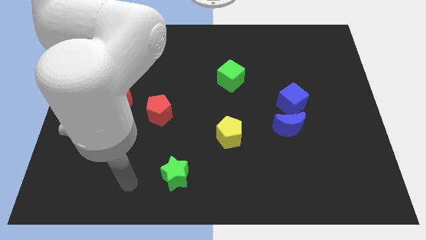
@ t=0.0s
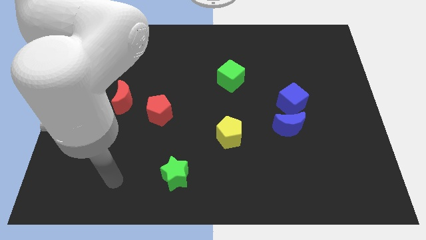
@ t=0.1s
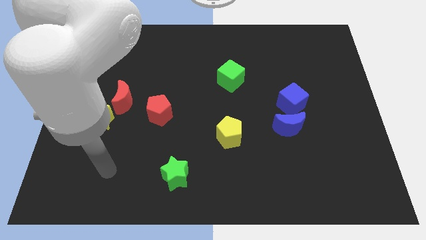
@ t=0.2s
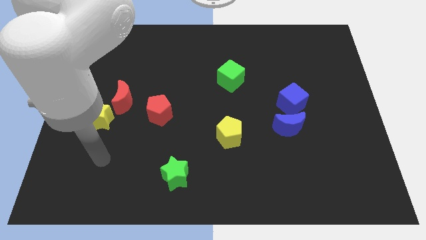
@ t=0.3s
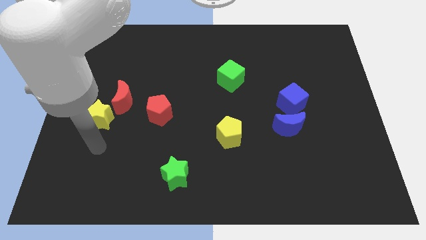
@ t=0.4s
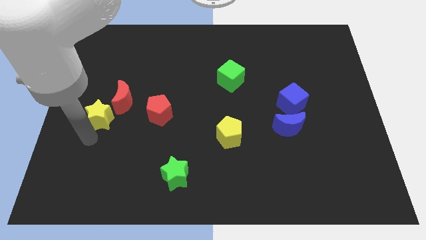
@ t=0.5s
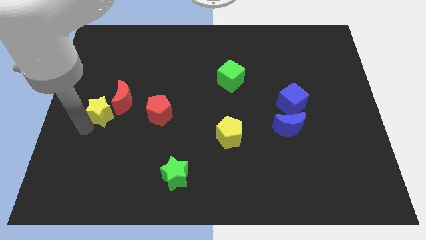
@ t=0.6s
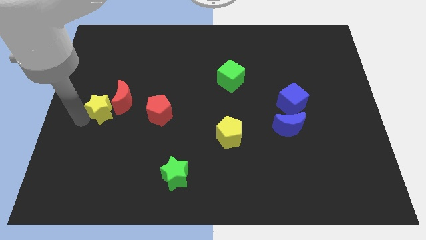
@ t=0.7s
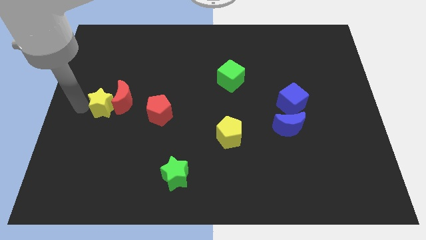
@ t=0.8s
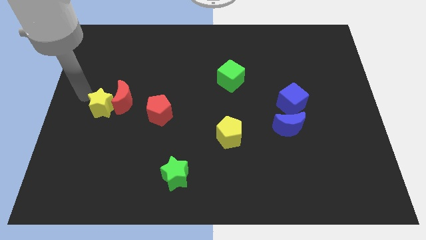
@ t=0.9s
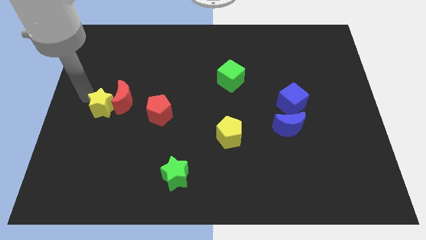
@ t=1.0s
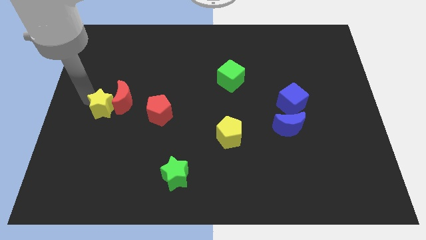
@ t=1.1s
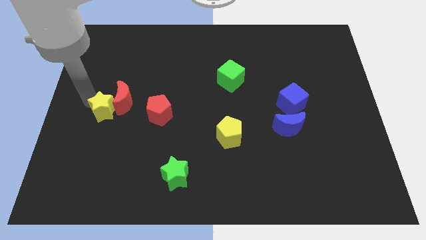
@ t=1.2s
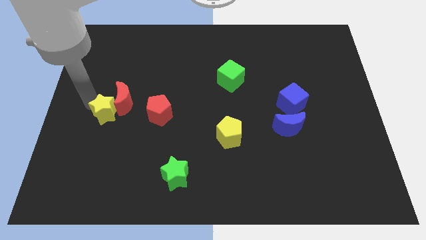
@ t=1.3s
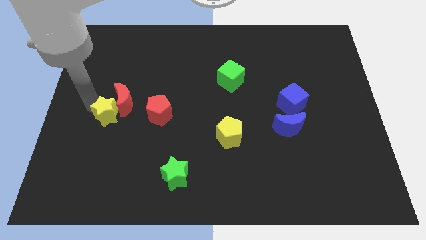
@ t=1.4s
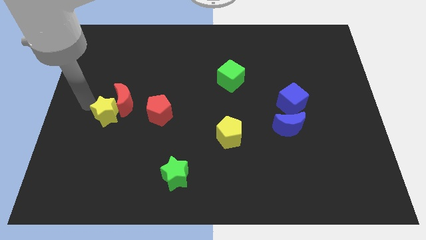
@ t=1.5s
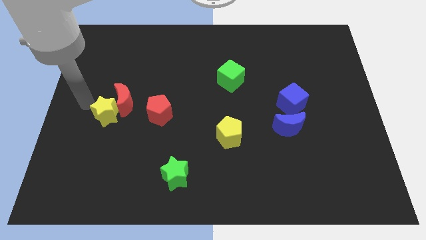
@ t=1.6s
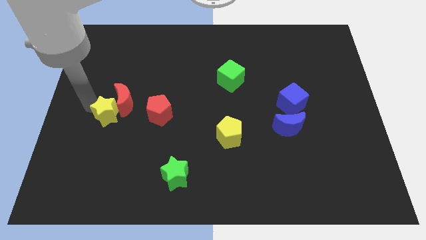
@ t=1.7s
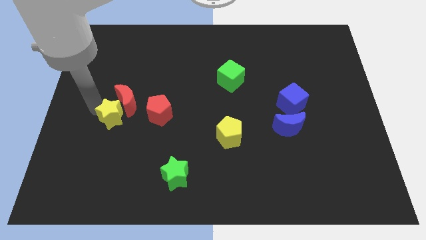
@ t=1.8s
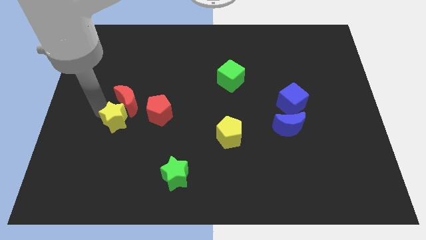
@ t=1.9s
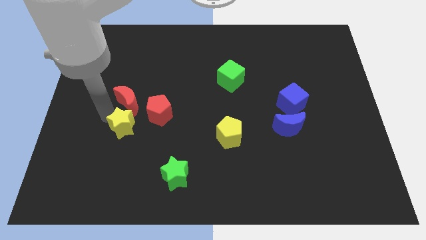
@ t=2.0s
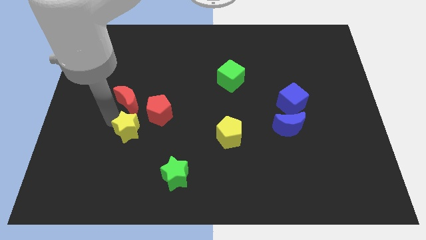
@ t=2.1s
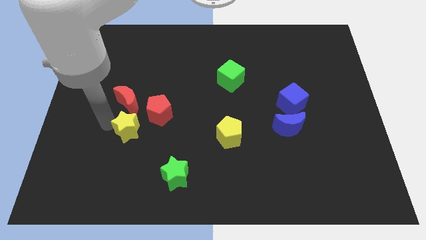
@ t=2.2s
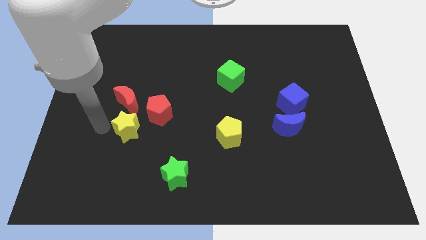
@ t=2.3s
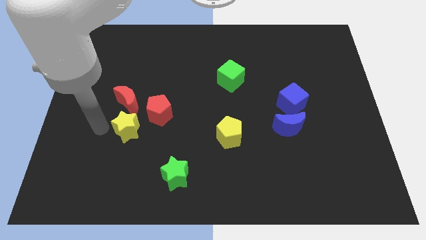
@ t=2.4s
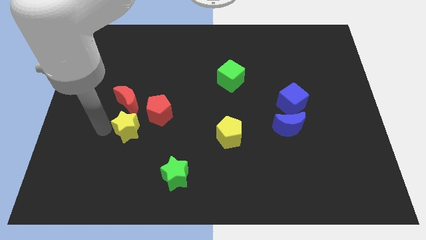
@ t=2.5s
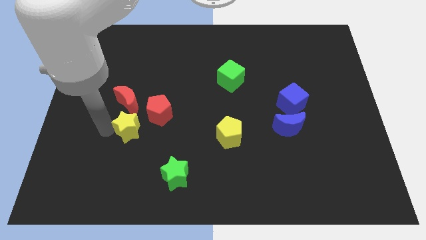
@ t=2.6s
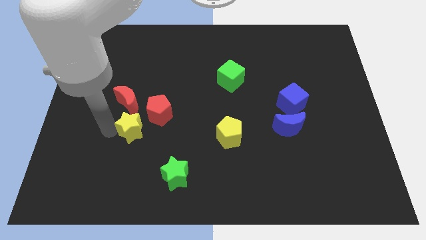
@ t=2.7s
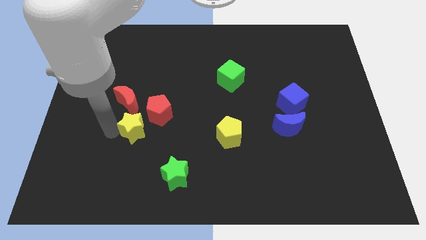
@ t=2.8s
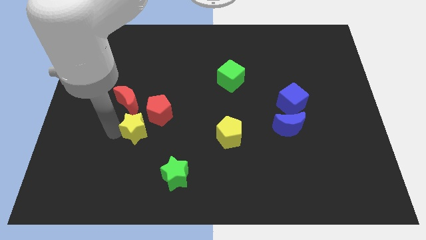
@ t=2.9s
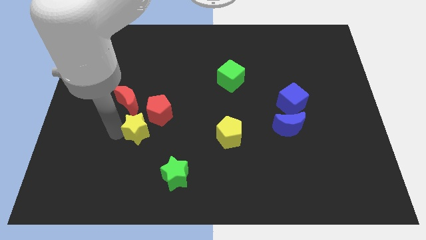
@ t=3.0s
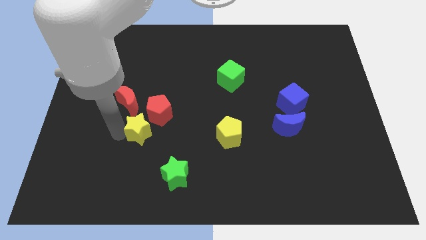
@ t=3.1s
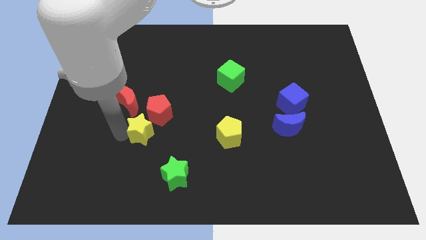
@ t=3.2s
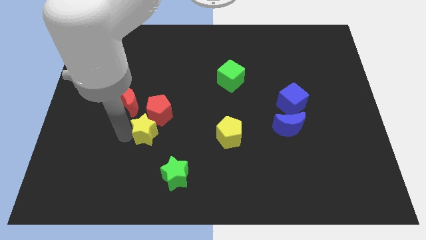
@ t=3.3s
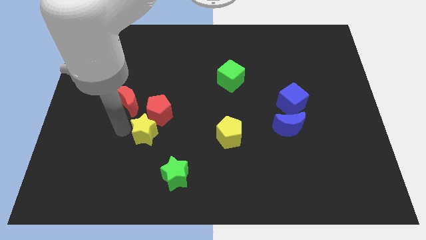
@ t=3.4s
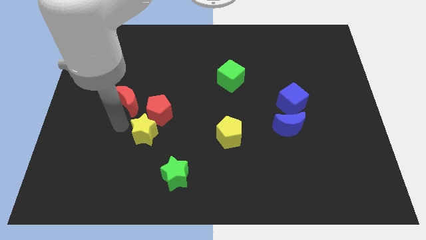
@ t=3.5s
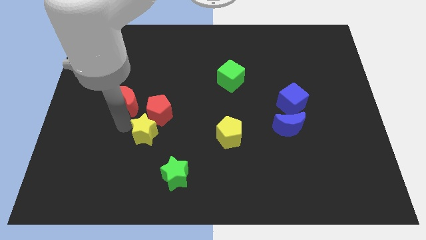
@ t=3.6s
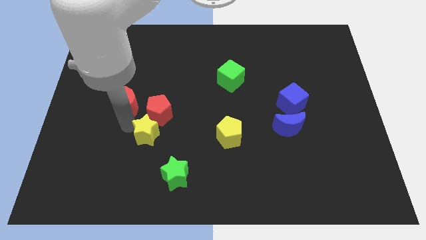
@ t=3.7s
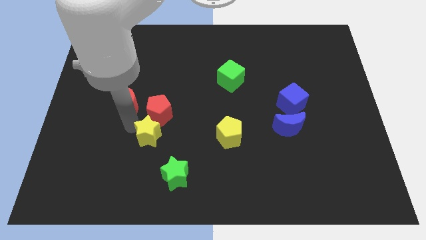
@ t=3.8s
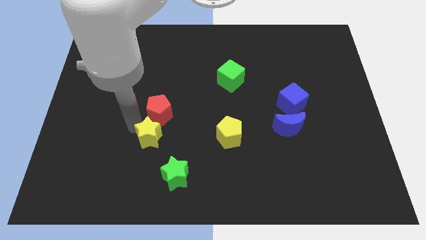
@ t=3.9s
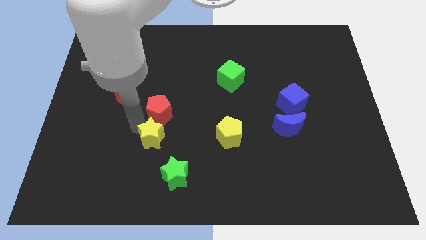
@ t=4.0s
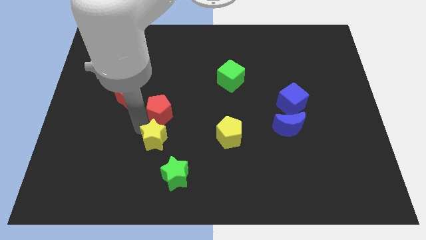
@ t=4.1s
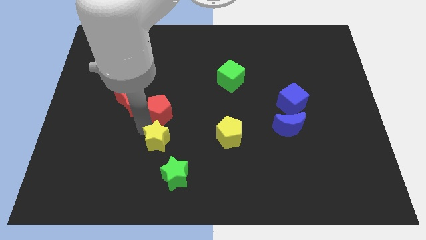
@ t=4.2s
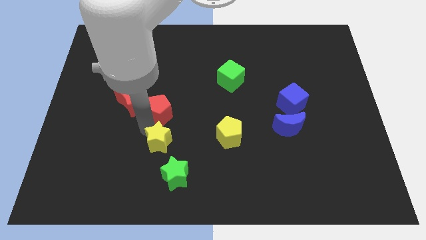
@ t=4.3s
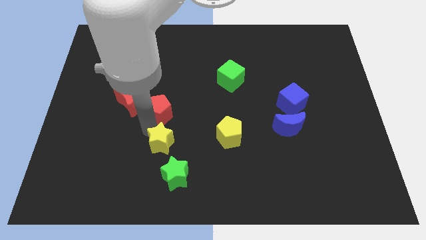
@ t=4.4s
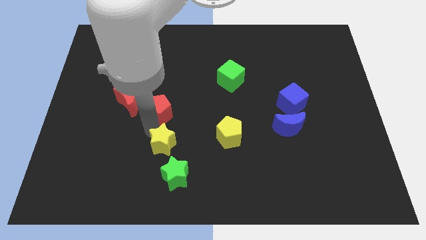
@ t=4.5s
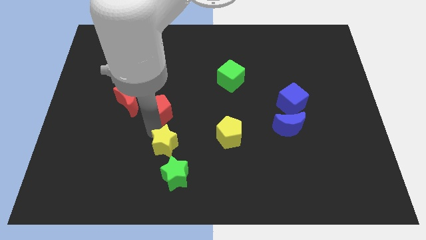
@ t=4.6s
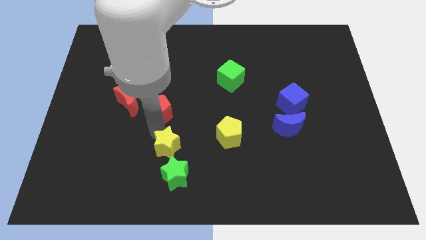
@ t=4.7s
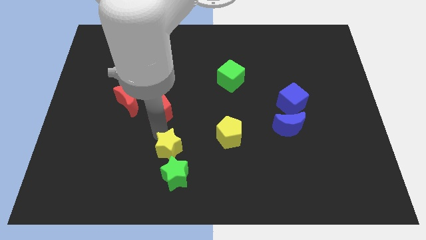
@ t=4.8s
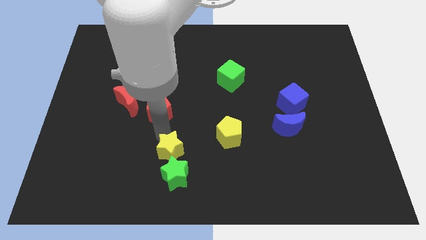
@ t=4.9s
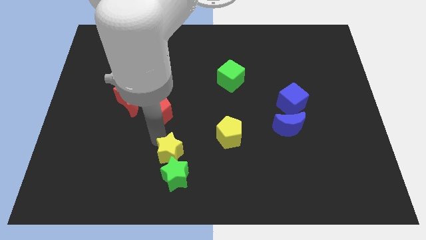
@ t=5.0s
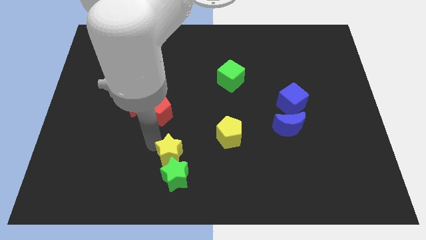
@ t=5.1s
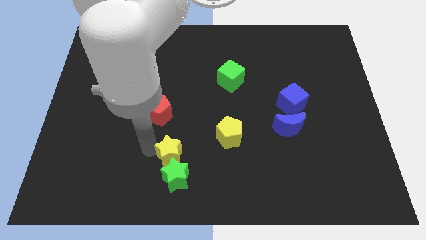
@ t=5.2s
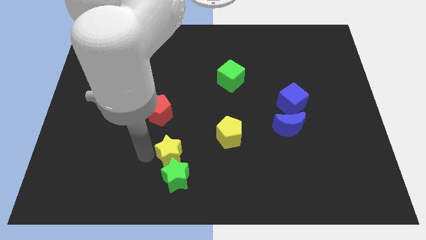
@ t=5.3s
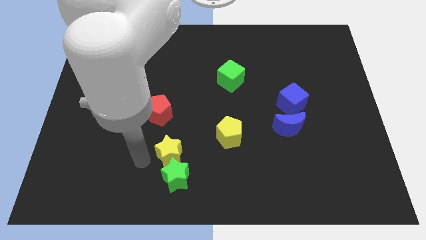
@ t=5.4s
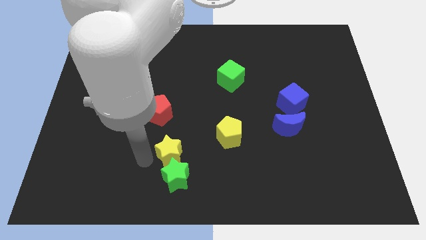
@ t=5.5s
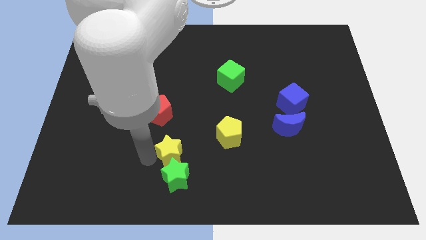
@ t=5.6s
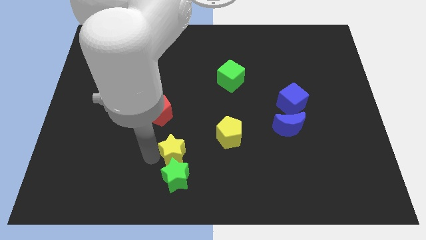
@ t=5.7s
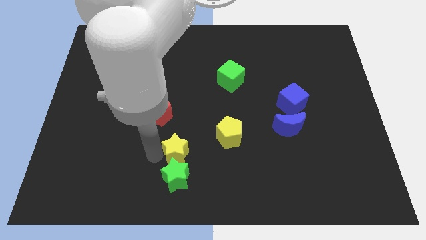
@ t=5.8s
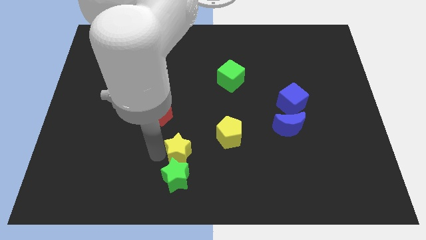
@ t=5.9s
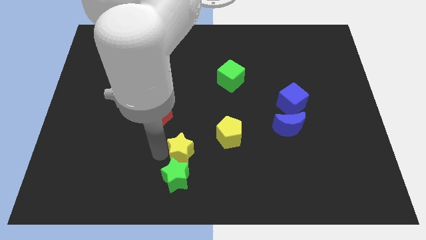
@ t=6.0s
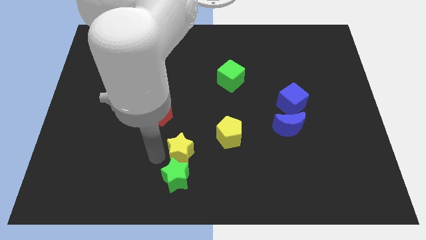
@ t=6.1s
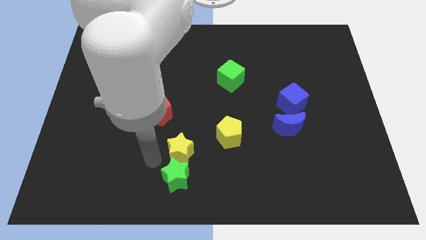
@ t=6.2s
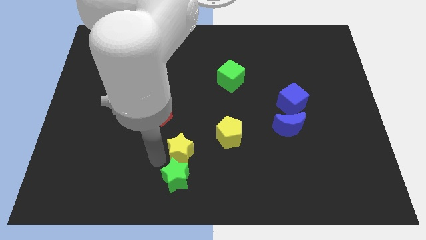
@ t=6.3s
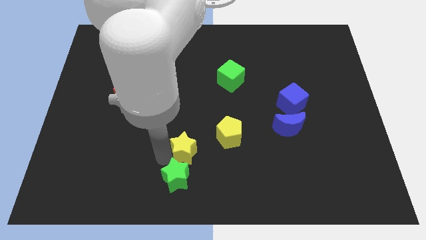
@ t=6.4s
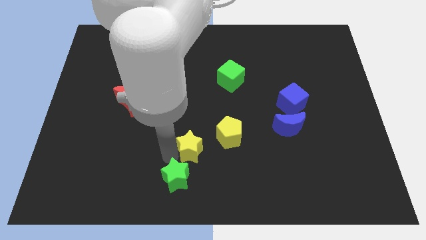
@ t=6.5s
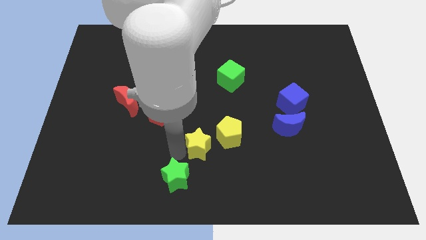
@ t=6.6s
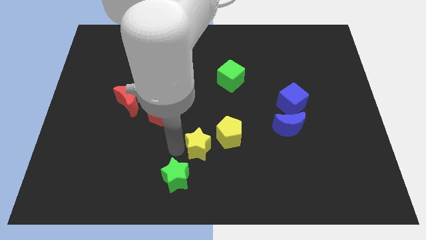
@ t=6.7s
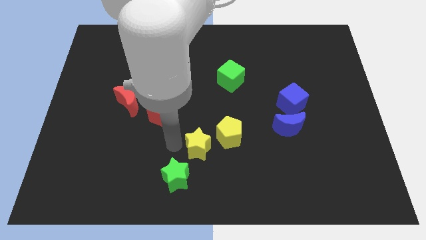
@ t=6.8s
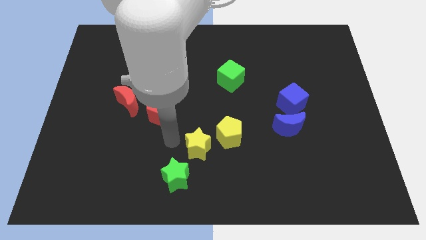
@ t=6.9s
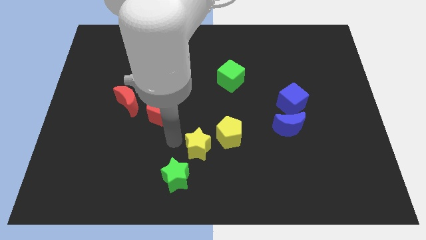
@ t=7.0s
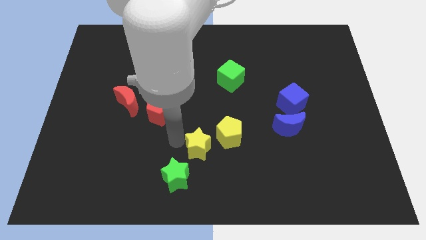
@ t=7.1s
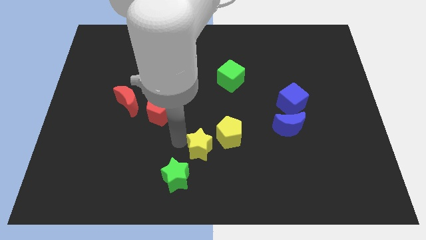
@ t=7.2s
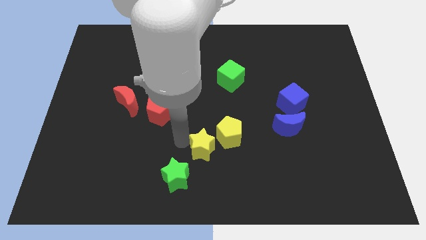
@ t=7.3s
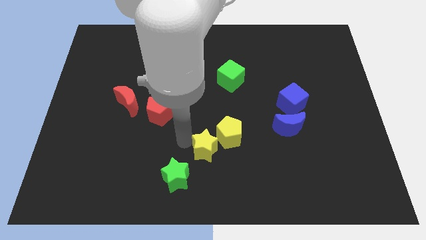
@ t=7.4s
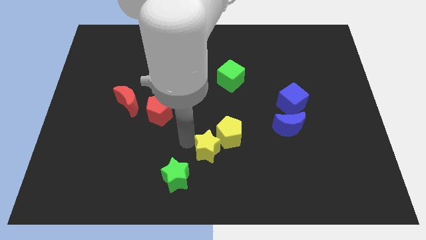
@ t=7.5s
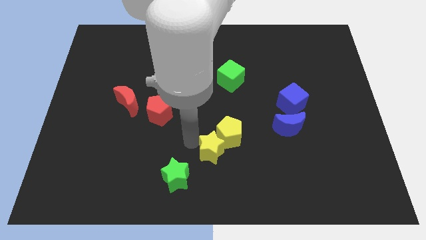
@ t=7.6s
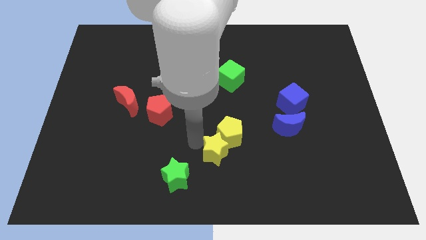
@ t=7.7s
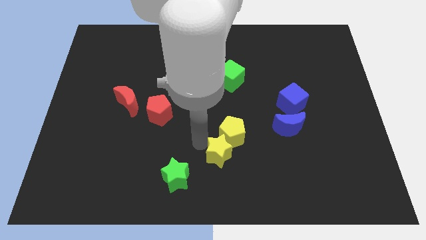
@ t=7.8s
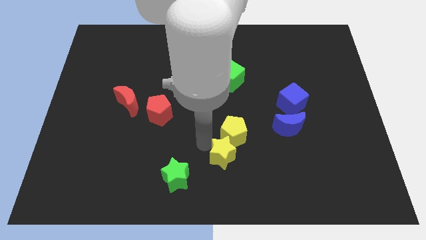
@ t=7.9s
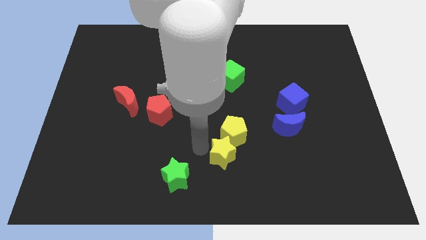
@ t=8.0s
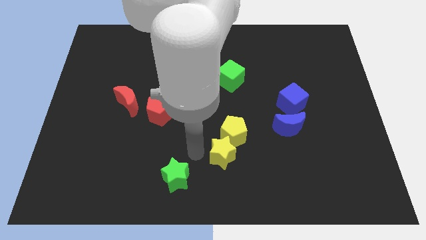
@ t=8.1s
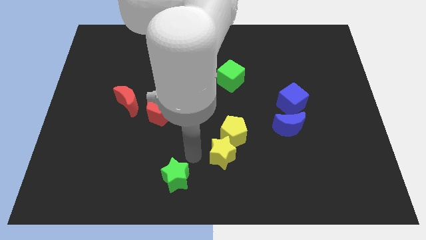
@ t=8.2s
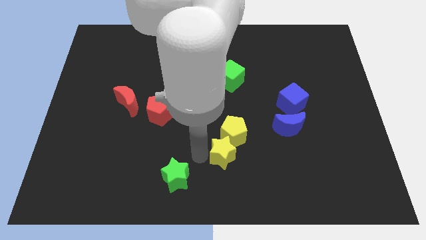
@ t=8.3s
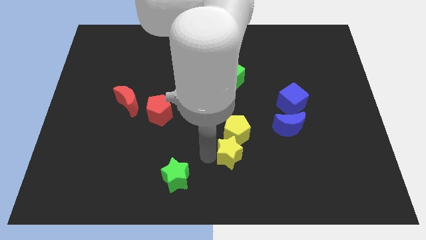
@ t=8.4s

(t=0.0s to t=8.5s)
put the yellow star to the bottom right side of the yellow pentagon
